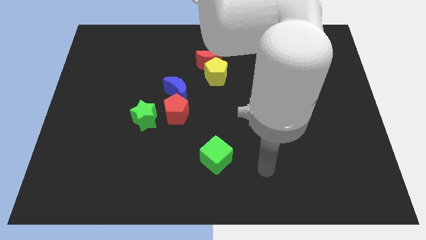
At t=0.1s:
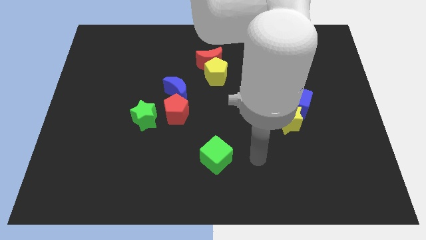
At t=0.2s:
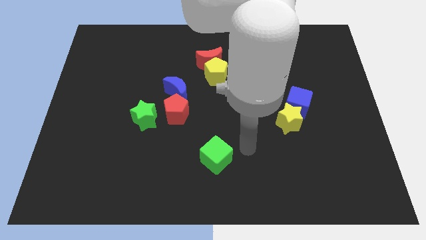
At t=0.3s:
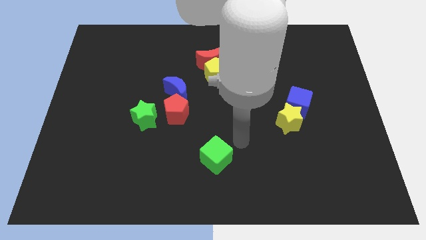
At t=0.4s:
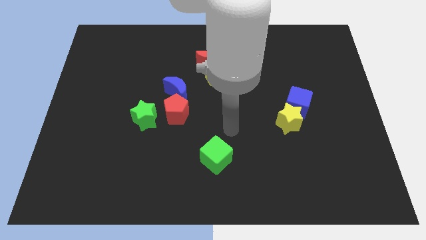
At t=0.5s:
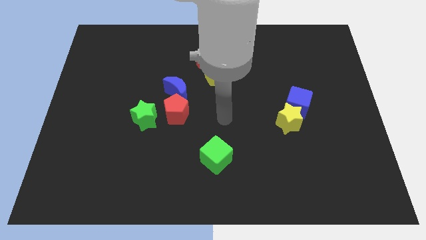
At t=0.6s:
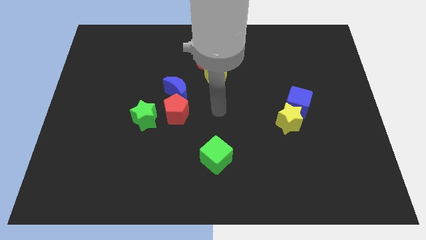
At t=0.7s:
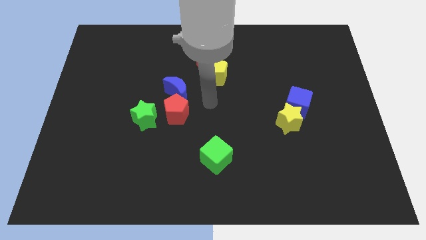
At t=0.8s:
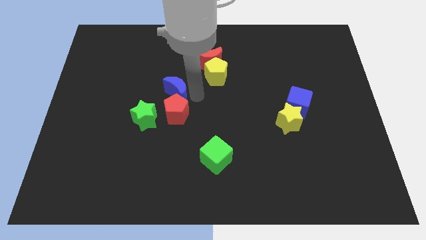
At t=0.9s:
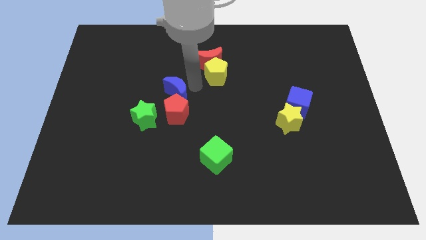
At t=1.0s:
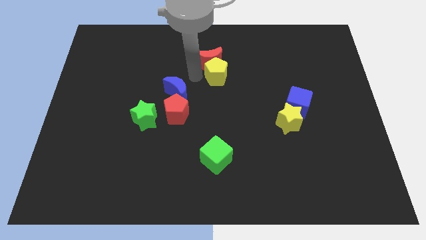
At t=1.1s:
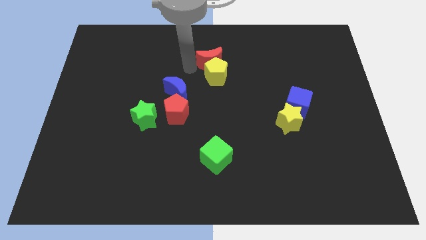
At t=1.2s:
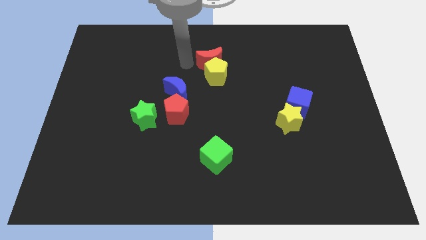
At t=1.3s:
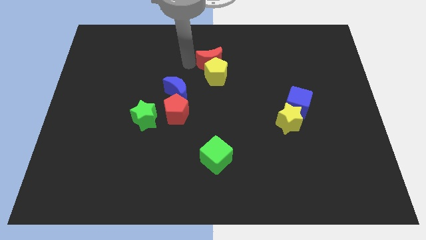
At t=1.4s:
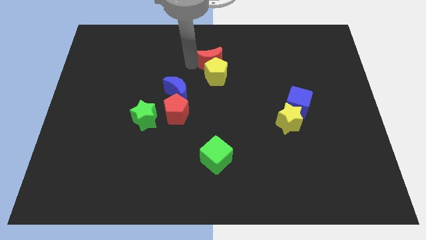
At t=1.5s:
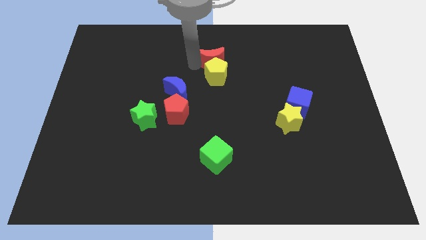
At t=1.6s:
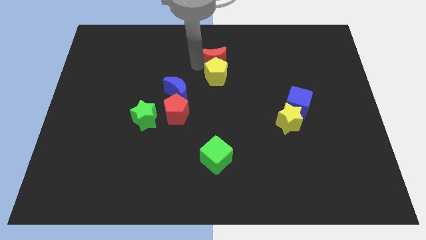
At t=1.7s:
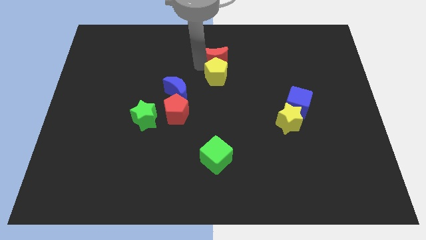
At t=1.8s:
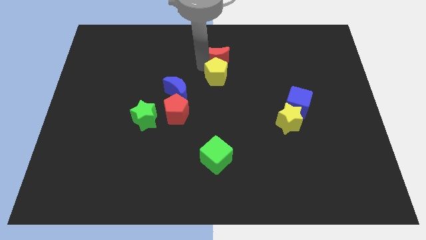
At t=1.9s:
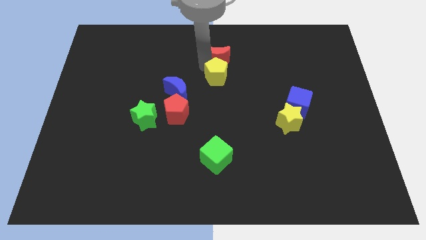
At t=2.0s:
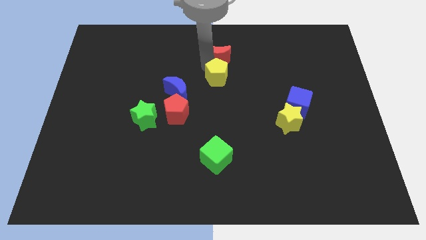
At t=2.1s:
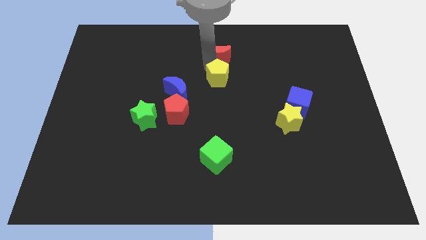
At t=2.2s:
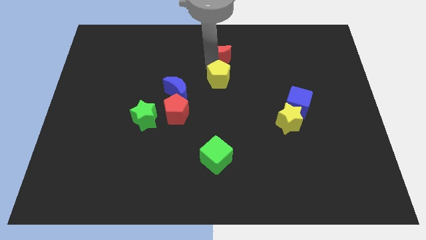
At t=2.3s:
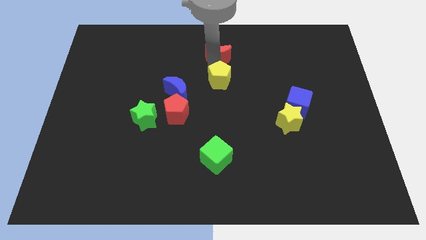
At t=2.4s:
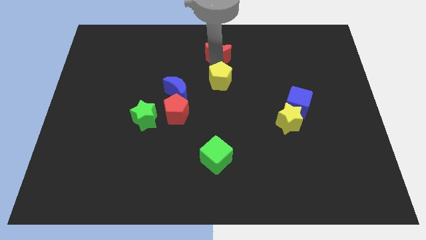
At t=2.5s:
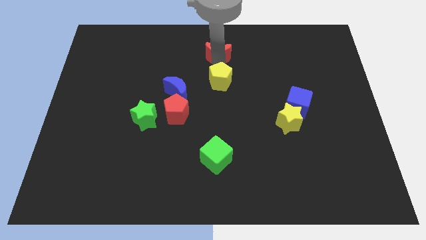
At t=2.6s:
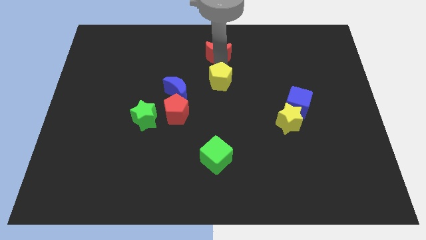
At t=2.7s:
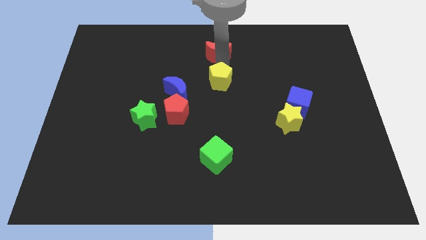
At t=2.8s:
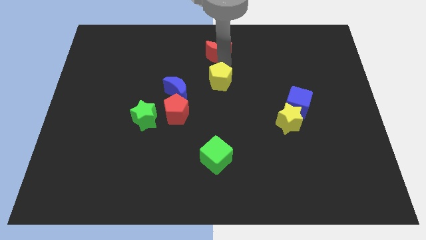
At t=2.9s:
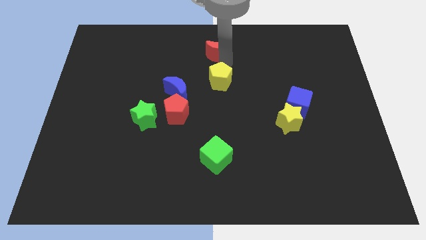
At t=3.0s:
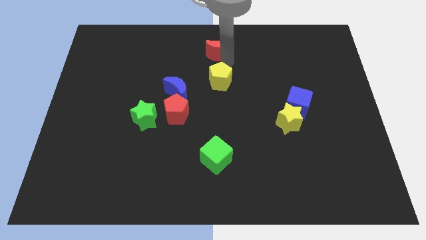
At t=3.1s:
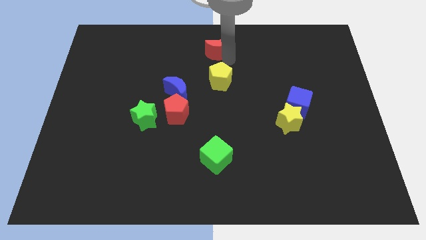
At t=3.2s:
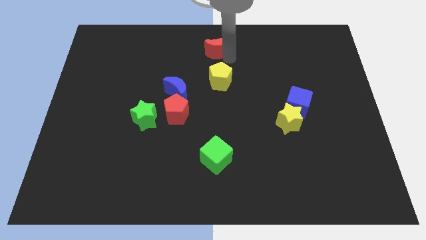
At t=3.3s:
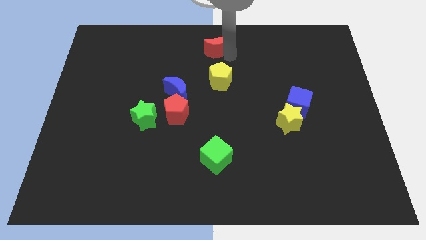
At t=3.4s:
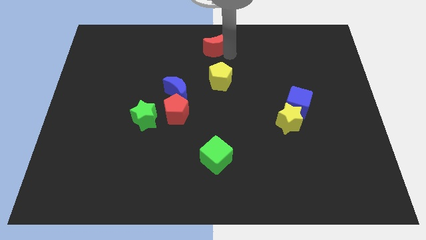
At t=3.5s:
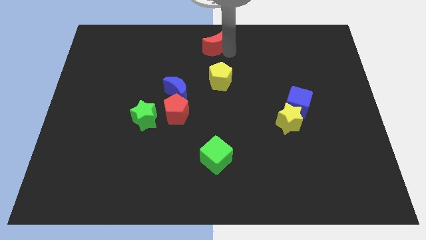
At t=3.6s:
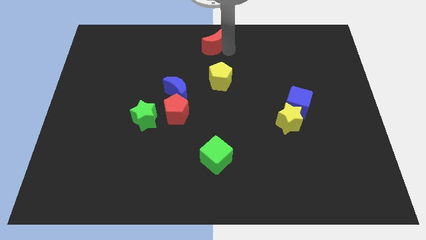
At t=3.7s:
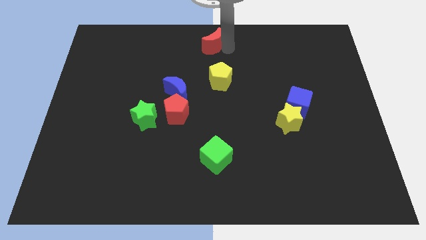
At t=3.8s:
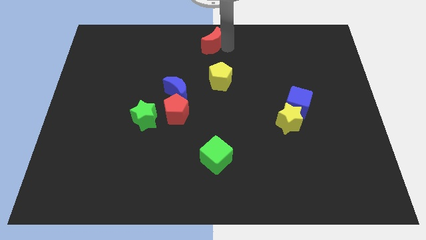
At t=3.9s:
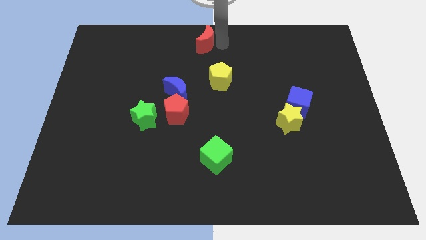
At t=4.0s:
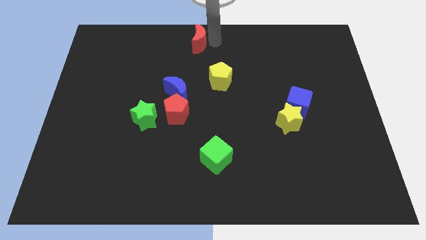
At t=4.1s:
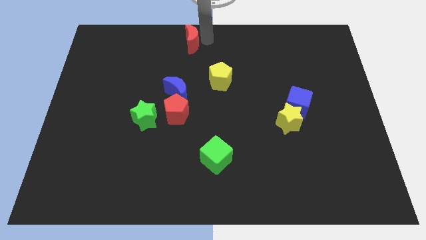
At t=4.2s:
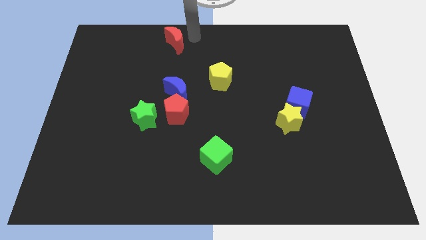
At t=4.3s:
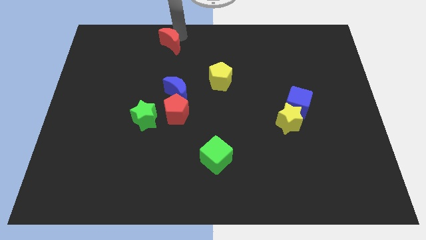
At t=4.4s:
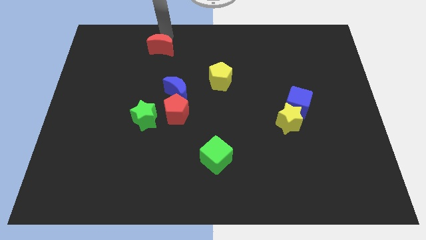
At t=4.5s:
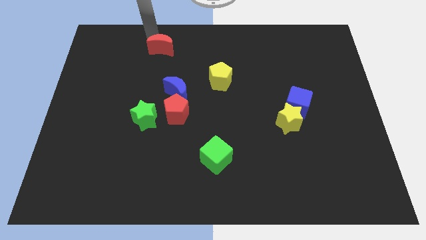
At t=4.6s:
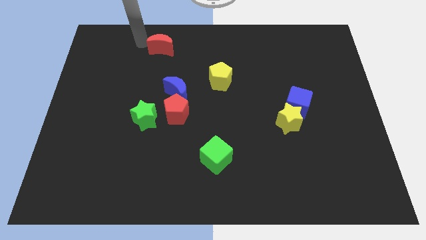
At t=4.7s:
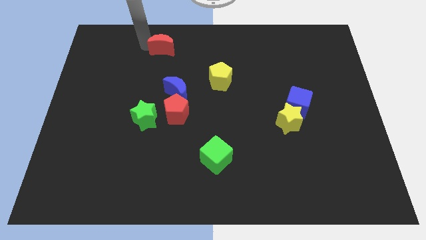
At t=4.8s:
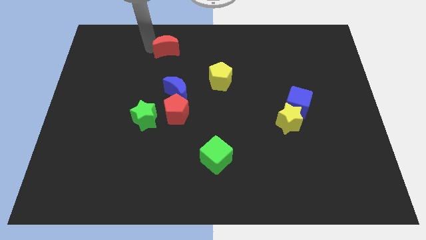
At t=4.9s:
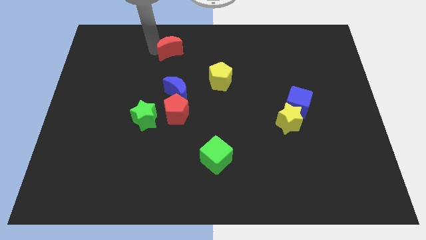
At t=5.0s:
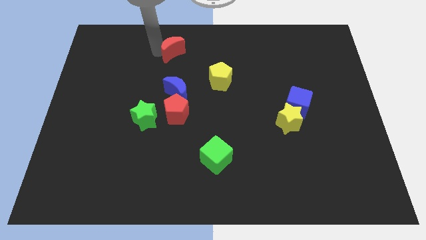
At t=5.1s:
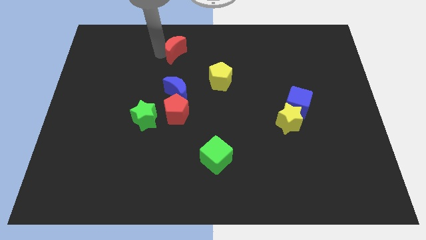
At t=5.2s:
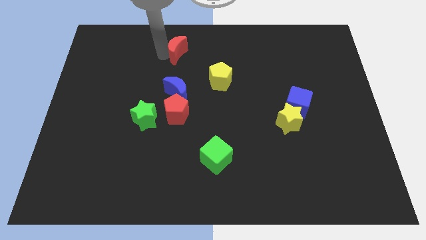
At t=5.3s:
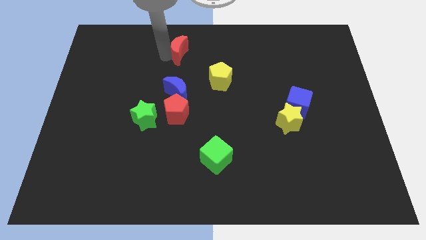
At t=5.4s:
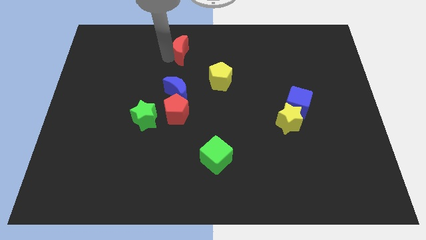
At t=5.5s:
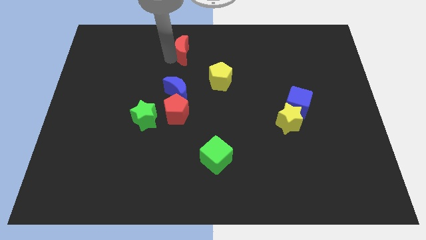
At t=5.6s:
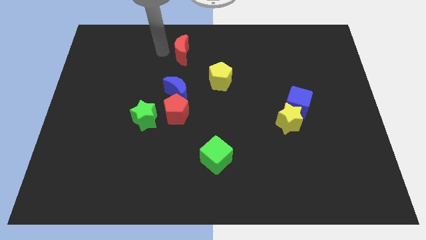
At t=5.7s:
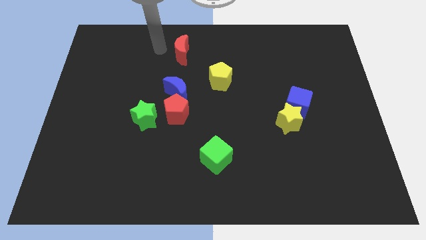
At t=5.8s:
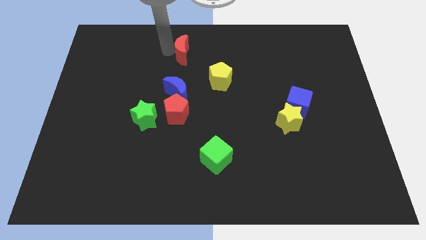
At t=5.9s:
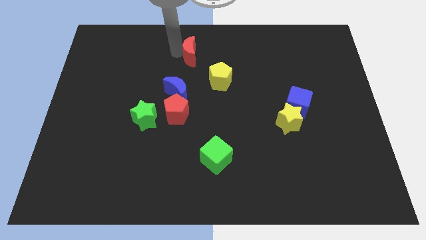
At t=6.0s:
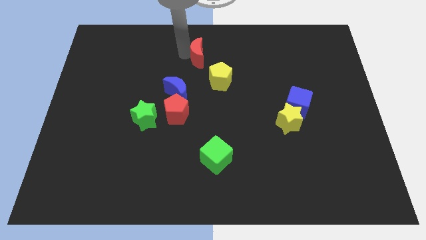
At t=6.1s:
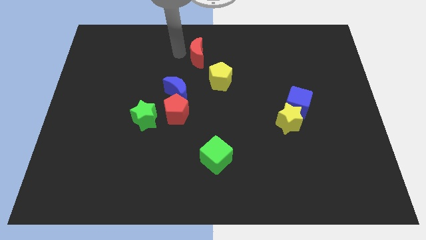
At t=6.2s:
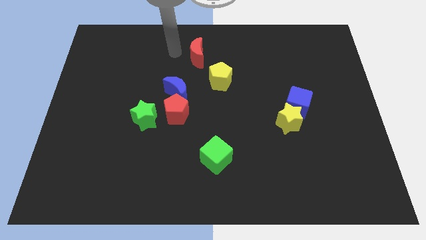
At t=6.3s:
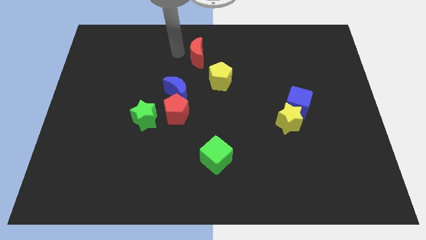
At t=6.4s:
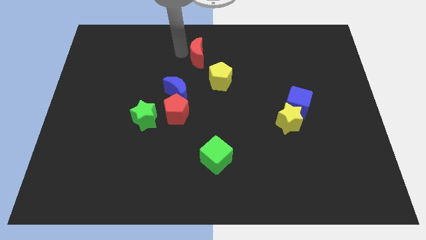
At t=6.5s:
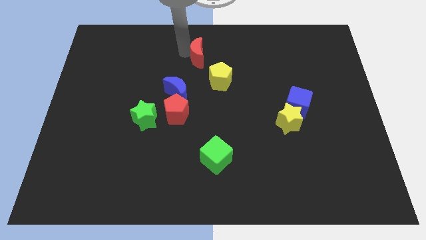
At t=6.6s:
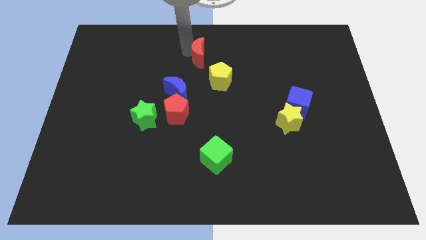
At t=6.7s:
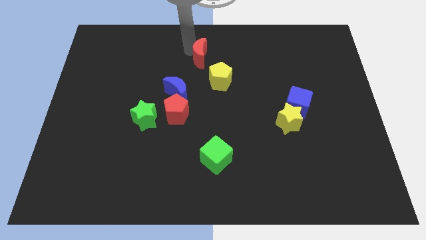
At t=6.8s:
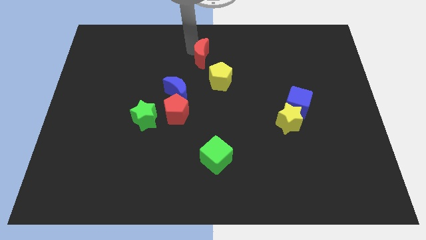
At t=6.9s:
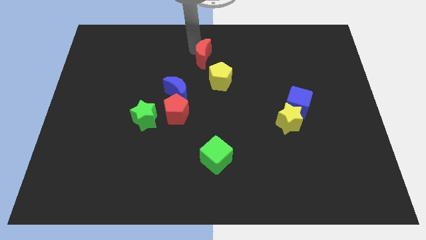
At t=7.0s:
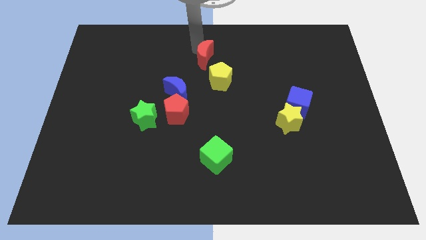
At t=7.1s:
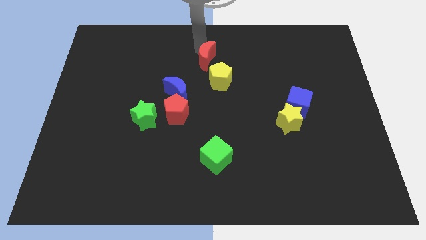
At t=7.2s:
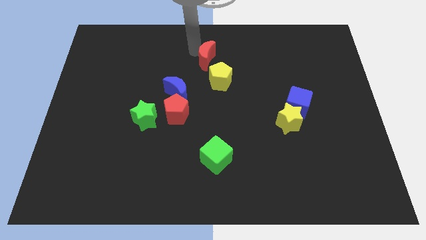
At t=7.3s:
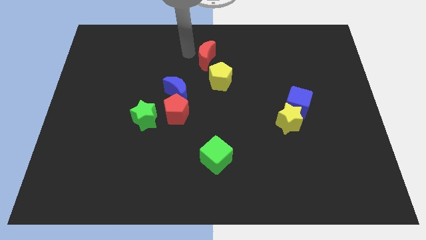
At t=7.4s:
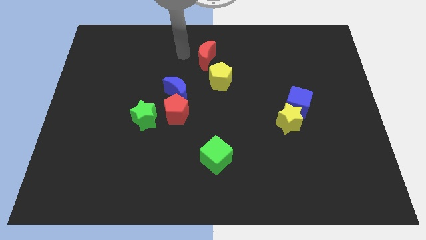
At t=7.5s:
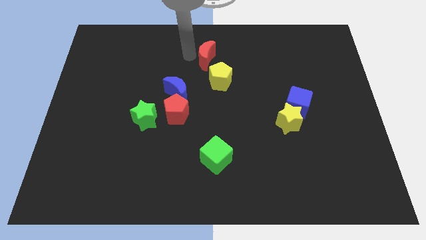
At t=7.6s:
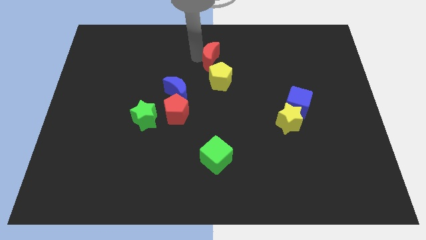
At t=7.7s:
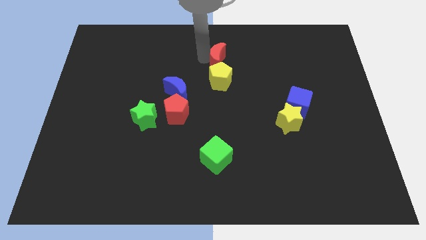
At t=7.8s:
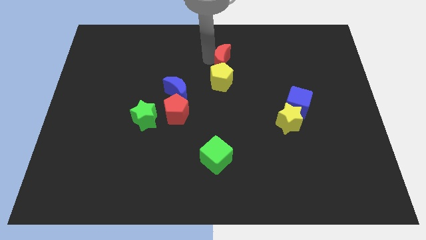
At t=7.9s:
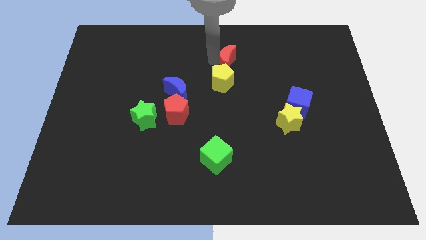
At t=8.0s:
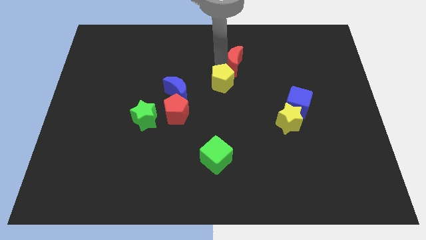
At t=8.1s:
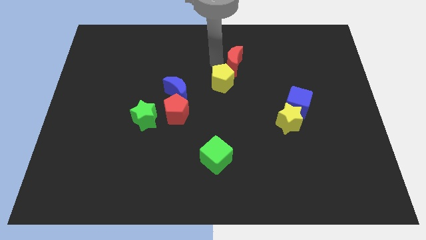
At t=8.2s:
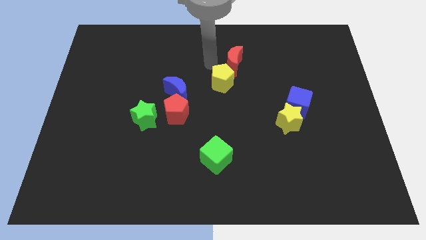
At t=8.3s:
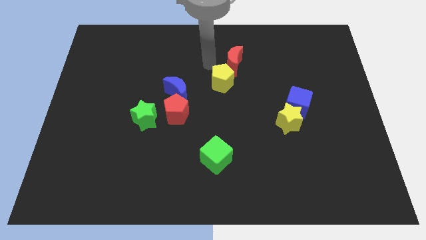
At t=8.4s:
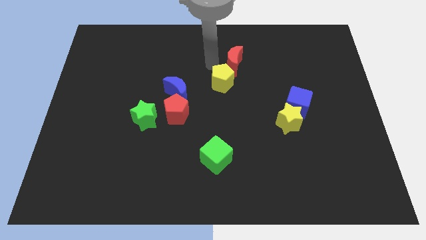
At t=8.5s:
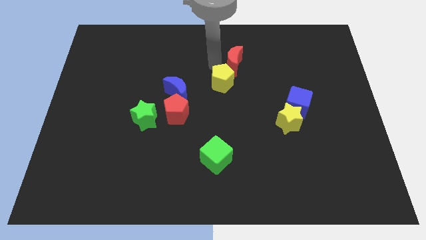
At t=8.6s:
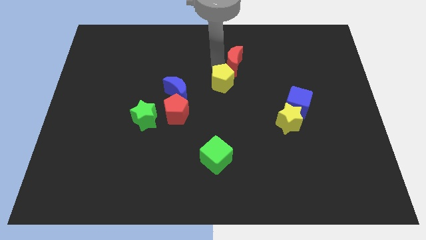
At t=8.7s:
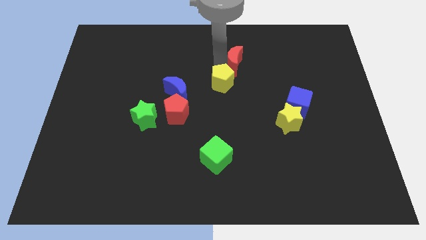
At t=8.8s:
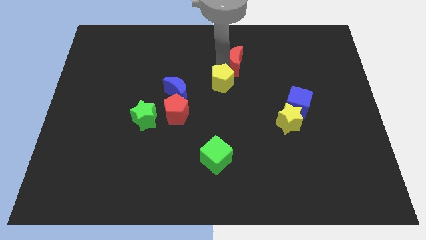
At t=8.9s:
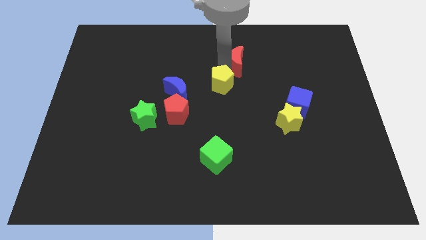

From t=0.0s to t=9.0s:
slightly slide the red moon right
